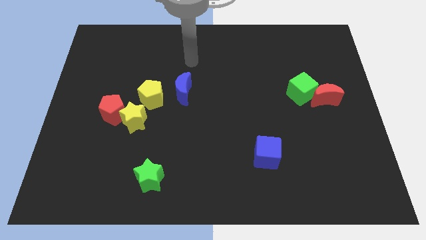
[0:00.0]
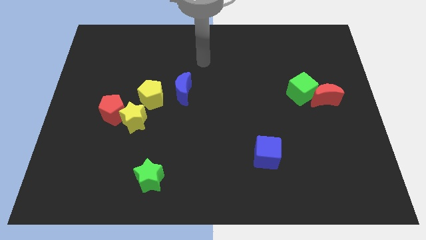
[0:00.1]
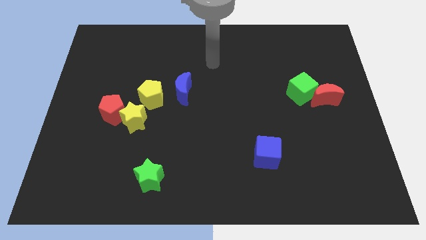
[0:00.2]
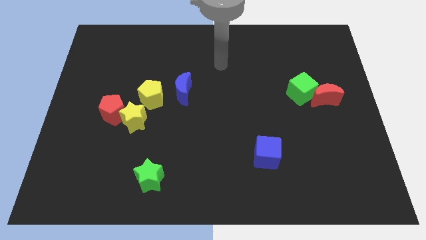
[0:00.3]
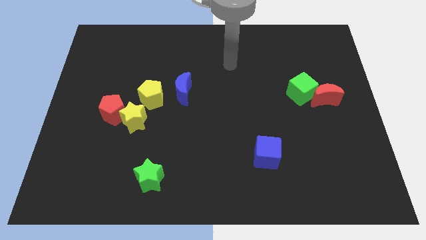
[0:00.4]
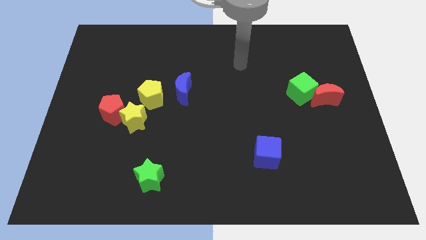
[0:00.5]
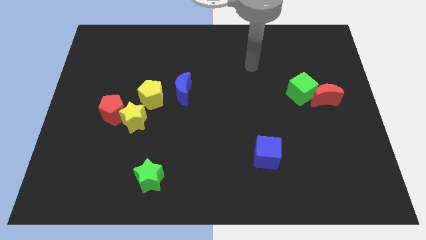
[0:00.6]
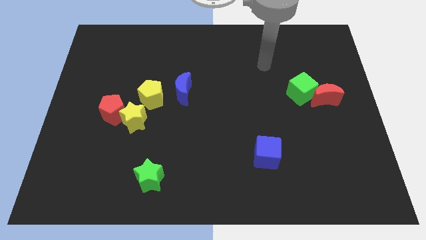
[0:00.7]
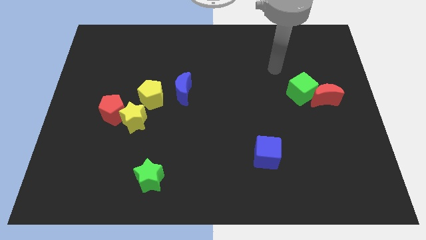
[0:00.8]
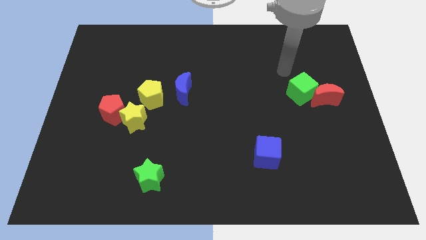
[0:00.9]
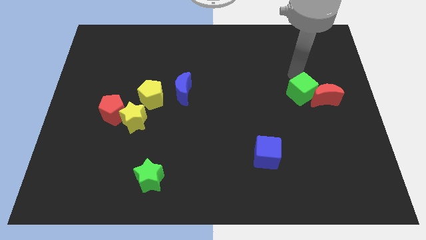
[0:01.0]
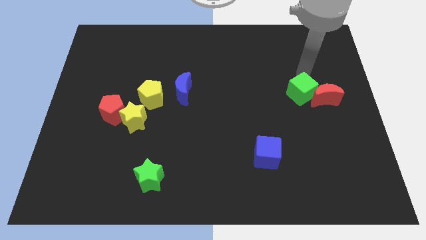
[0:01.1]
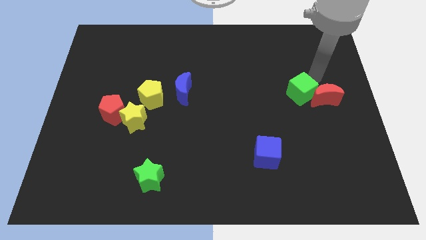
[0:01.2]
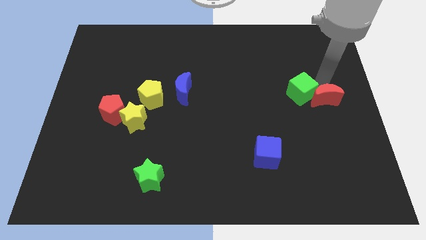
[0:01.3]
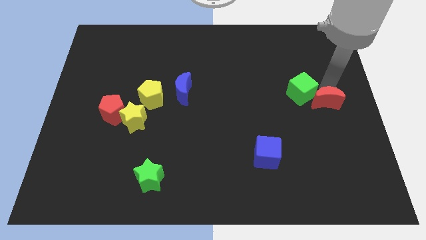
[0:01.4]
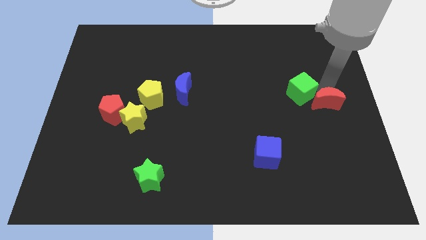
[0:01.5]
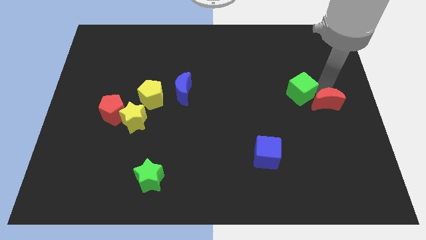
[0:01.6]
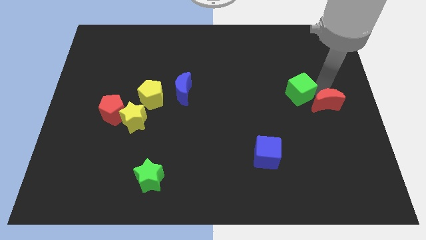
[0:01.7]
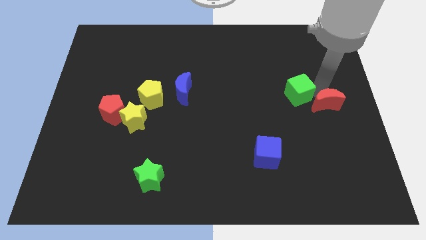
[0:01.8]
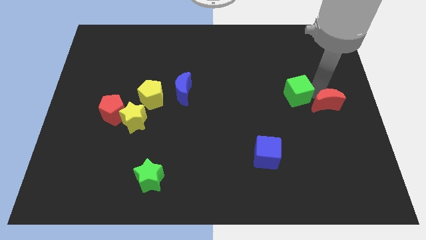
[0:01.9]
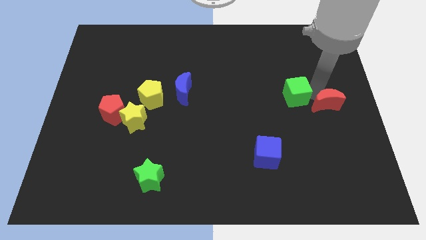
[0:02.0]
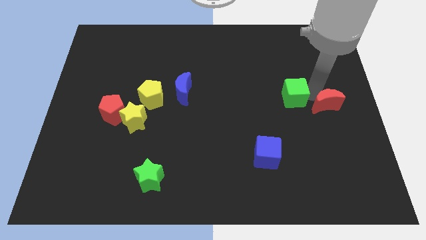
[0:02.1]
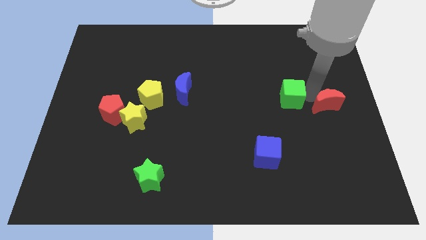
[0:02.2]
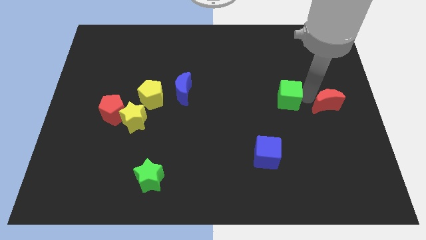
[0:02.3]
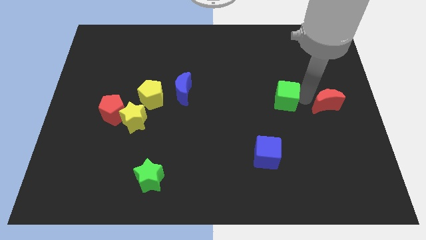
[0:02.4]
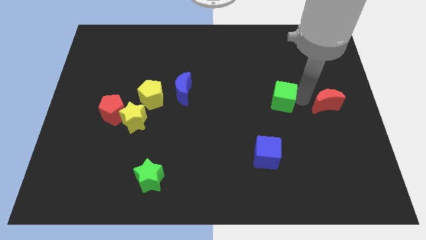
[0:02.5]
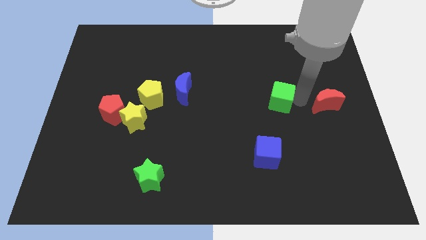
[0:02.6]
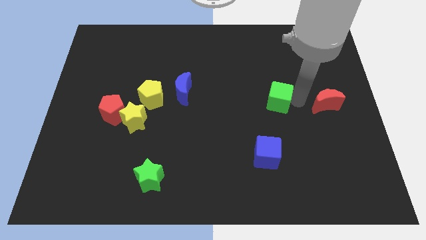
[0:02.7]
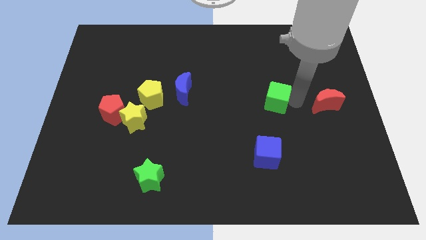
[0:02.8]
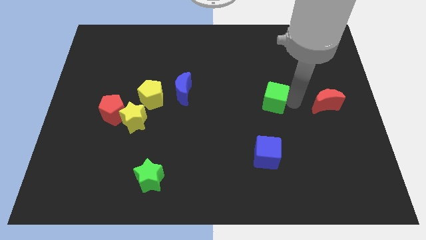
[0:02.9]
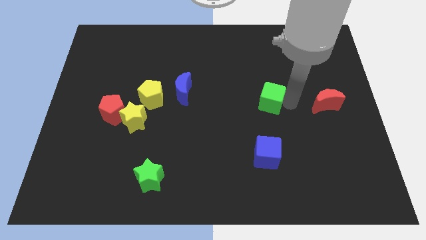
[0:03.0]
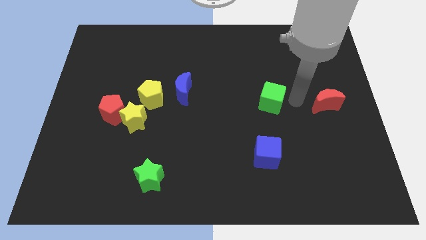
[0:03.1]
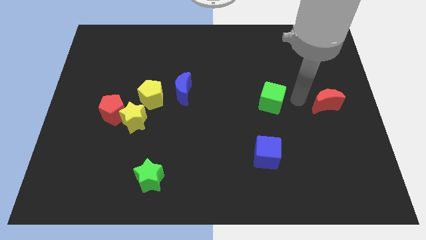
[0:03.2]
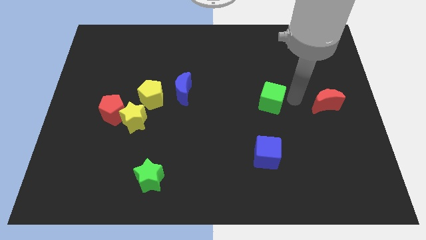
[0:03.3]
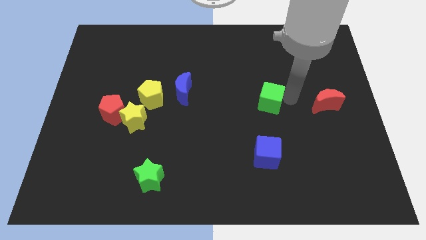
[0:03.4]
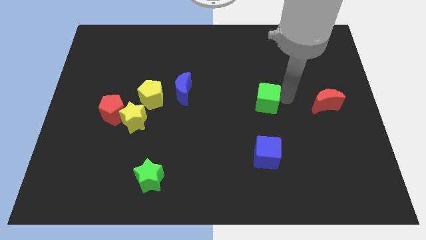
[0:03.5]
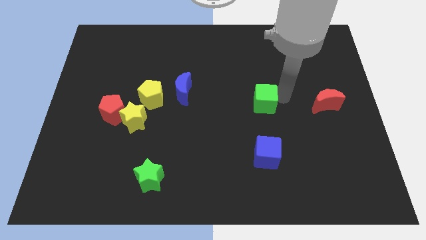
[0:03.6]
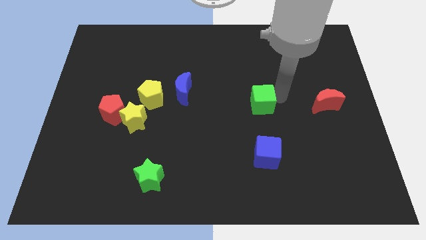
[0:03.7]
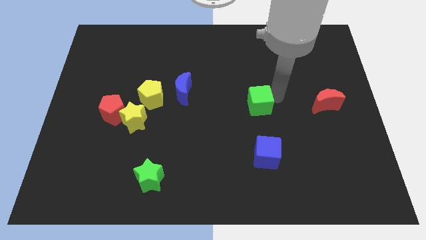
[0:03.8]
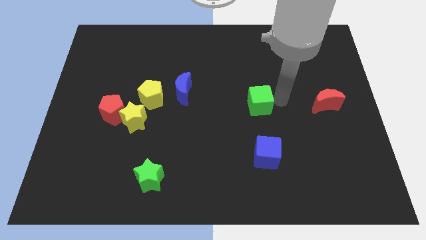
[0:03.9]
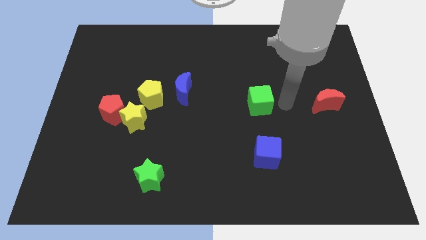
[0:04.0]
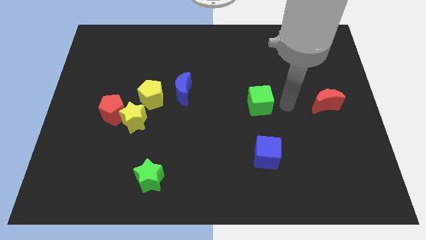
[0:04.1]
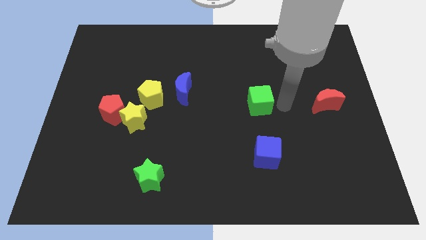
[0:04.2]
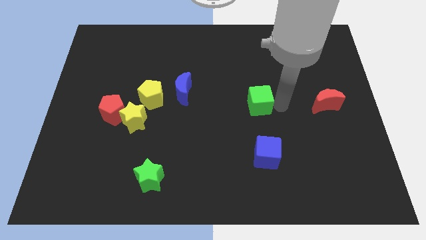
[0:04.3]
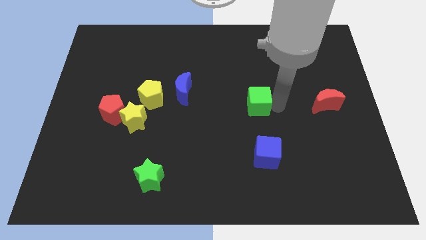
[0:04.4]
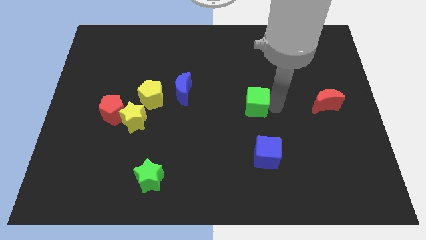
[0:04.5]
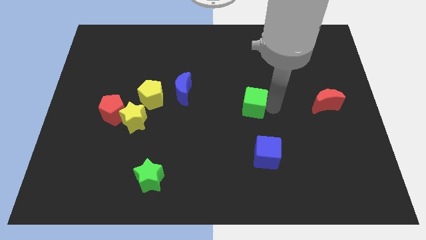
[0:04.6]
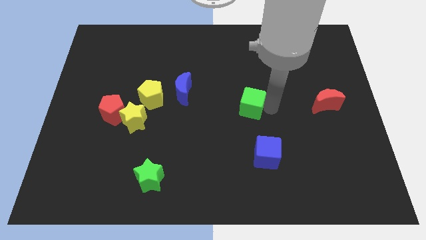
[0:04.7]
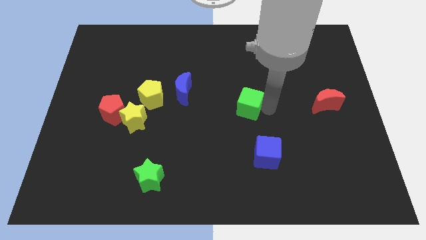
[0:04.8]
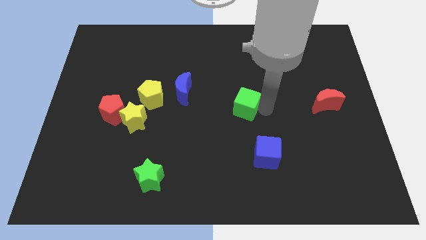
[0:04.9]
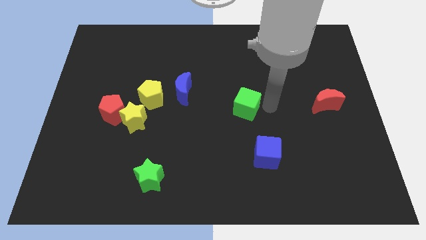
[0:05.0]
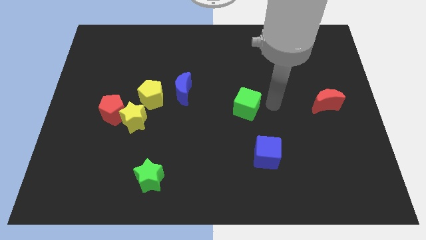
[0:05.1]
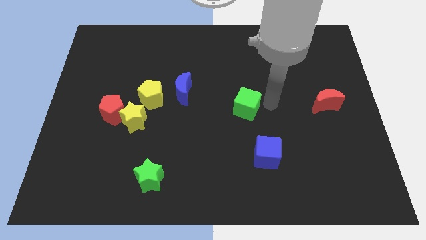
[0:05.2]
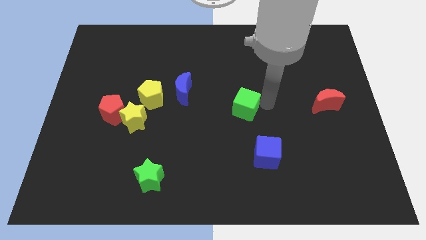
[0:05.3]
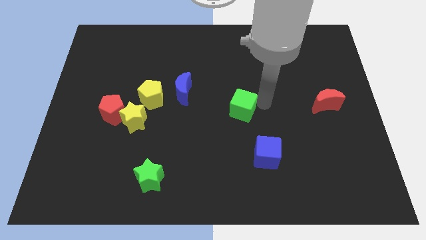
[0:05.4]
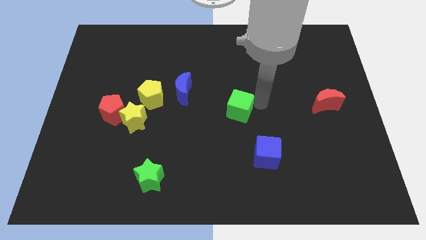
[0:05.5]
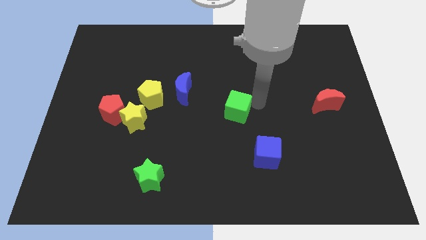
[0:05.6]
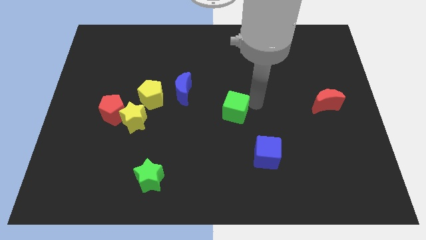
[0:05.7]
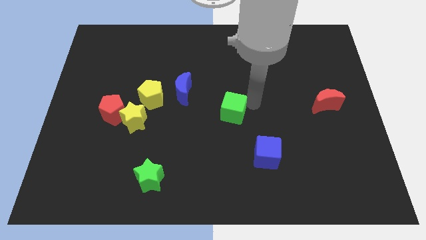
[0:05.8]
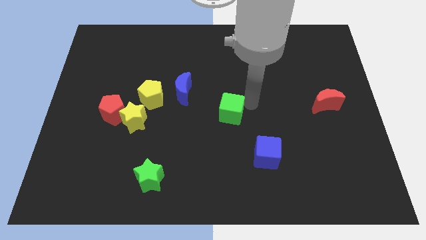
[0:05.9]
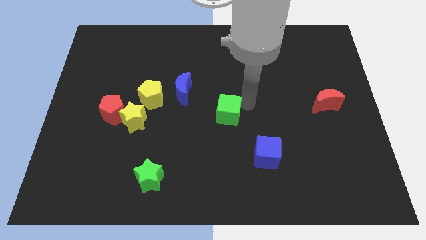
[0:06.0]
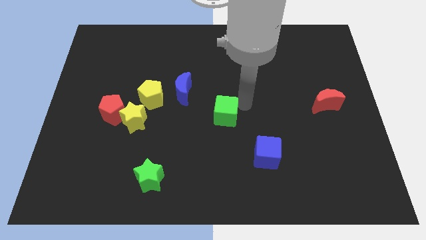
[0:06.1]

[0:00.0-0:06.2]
slide the green cube to the bottom right of the blue moon

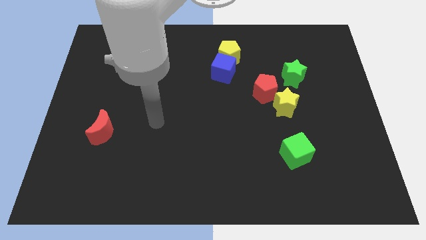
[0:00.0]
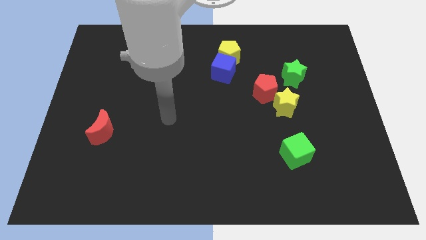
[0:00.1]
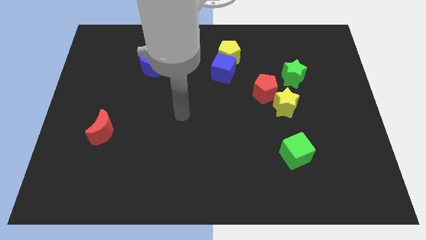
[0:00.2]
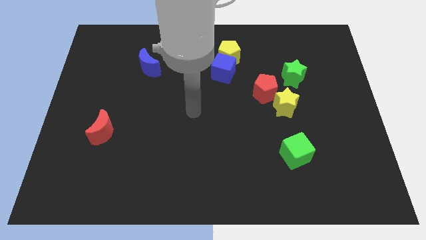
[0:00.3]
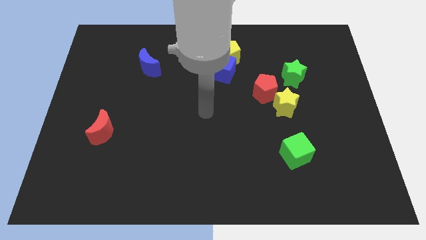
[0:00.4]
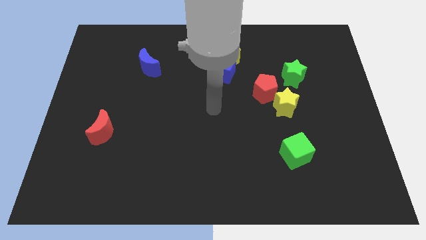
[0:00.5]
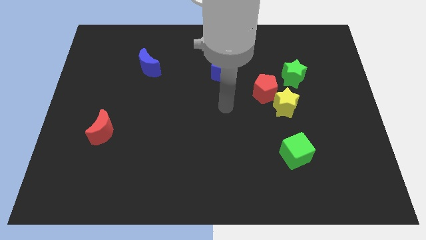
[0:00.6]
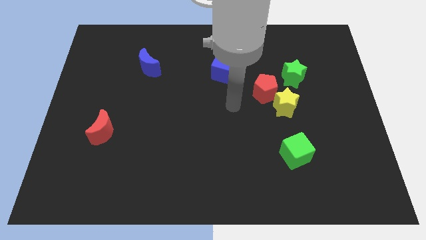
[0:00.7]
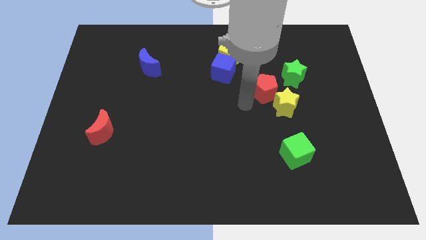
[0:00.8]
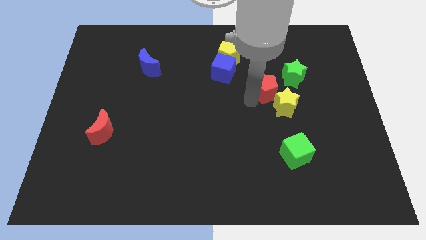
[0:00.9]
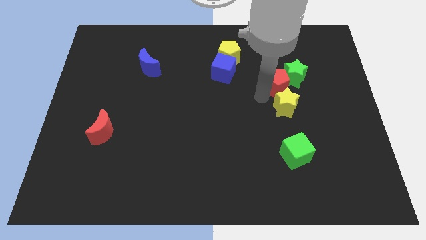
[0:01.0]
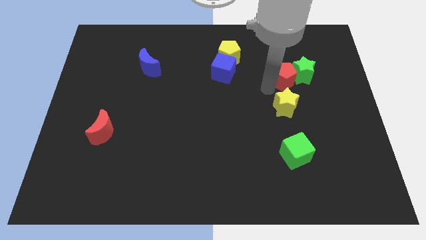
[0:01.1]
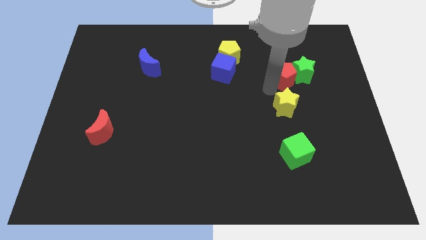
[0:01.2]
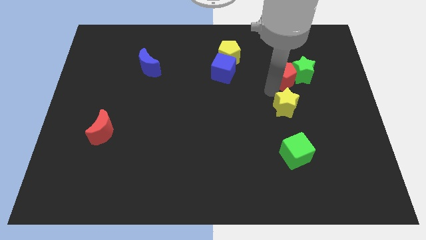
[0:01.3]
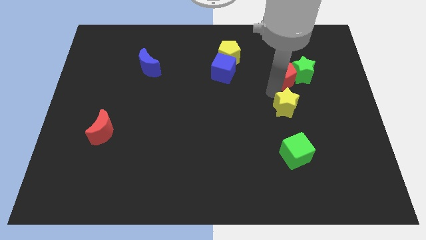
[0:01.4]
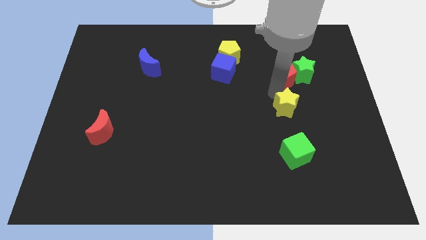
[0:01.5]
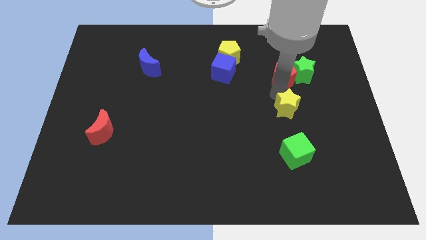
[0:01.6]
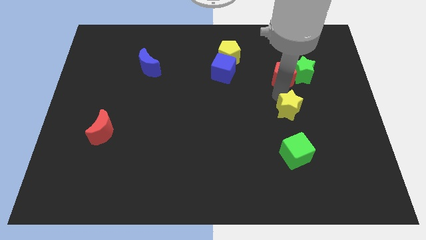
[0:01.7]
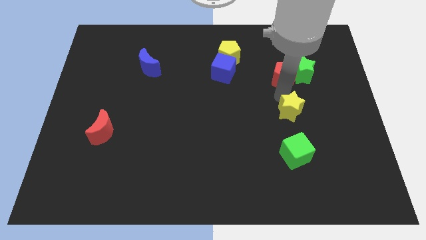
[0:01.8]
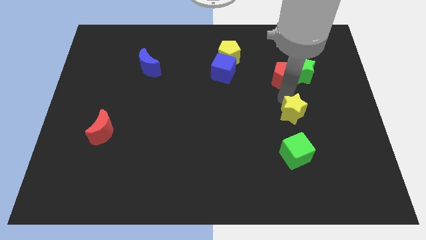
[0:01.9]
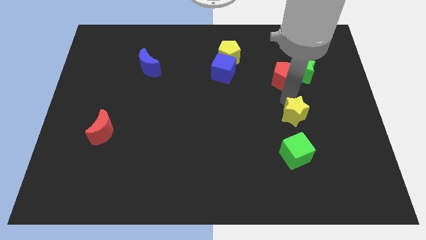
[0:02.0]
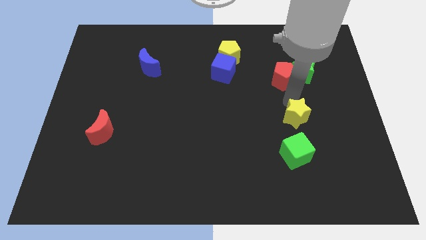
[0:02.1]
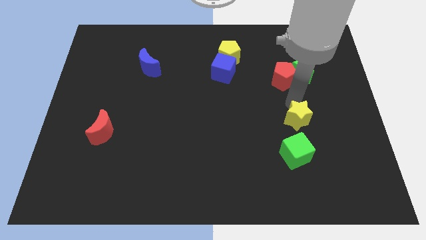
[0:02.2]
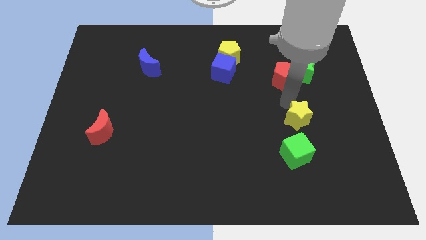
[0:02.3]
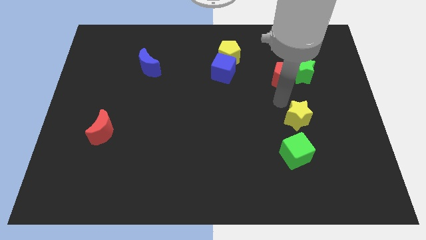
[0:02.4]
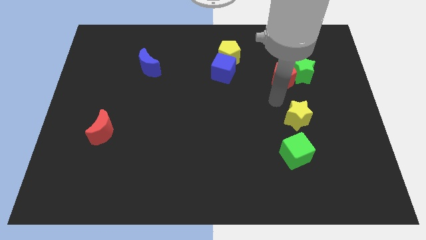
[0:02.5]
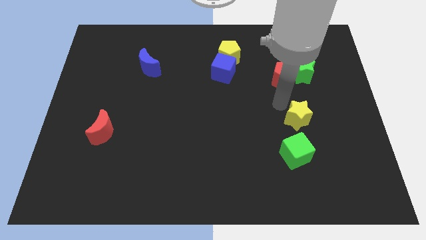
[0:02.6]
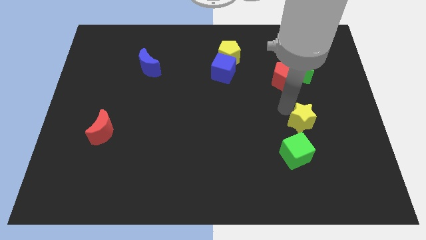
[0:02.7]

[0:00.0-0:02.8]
push the yellow star to the top right of the green cube
